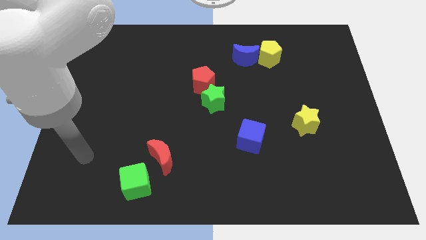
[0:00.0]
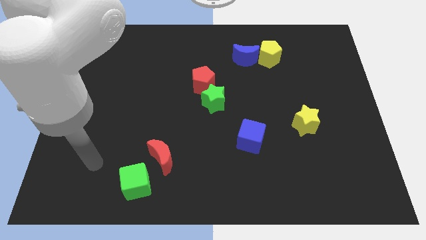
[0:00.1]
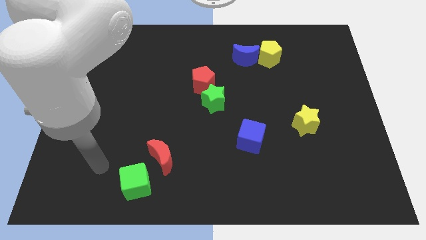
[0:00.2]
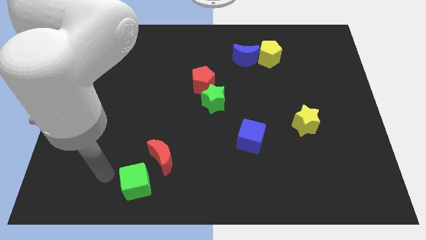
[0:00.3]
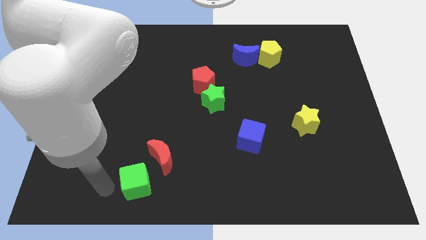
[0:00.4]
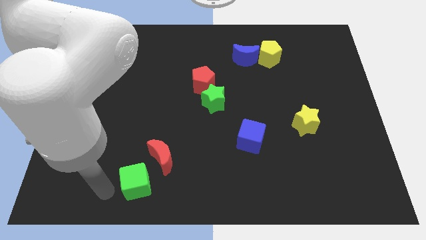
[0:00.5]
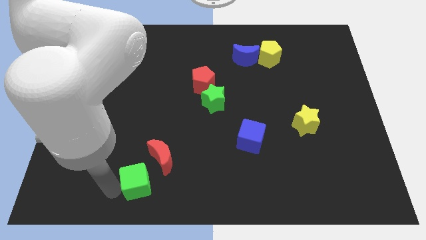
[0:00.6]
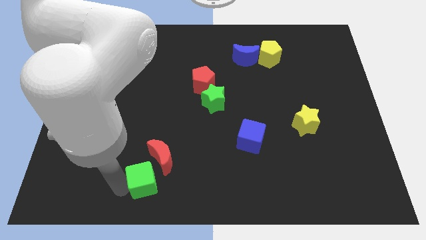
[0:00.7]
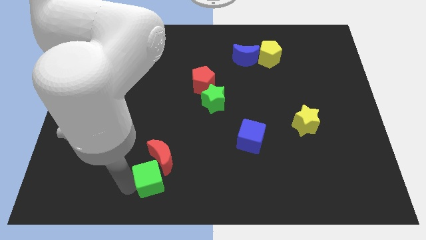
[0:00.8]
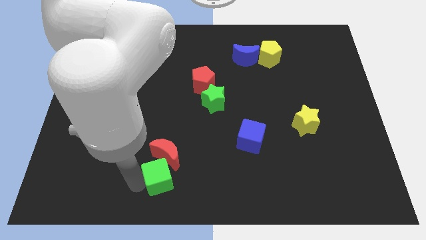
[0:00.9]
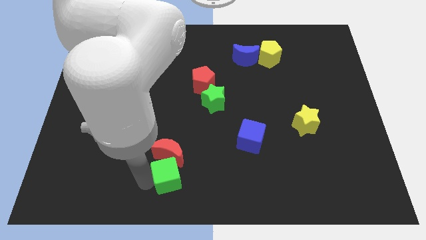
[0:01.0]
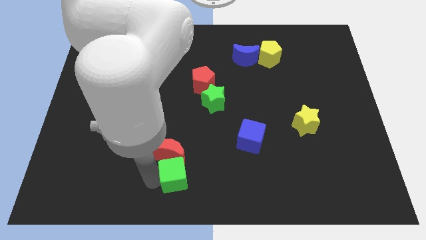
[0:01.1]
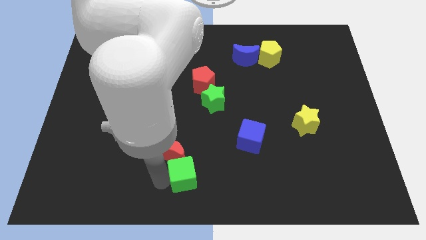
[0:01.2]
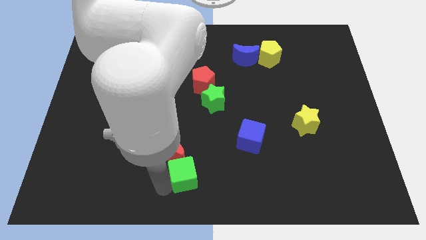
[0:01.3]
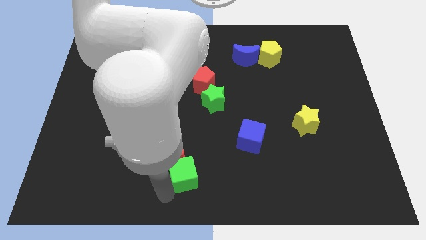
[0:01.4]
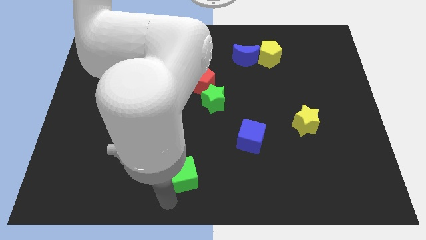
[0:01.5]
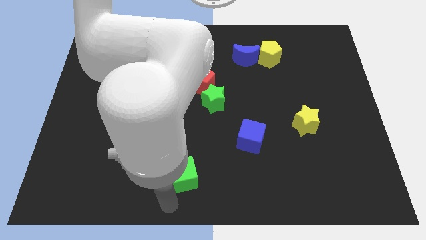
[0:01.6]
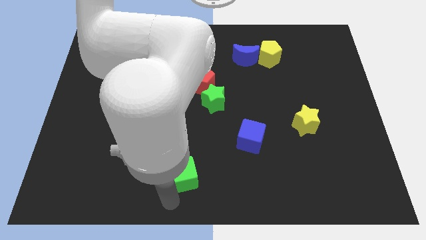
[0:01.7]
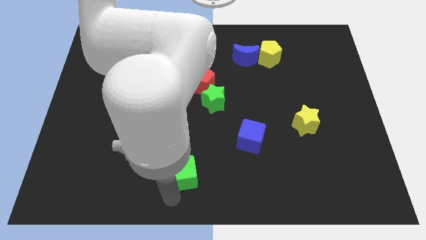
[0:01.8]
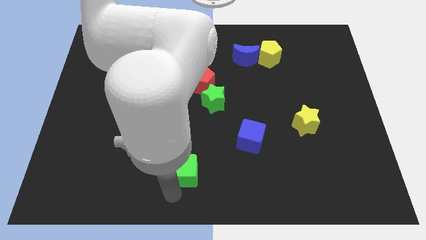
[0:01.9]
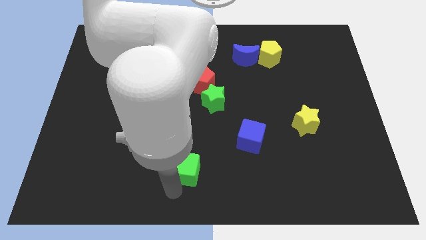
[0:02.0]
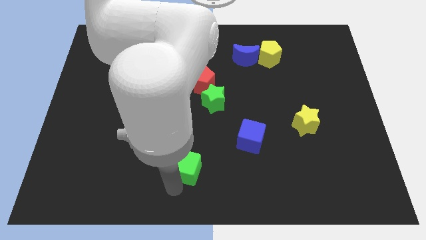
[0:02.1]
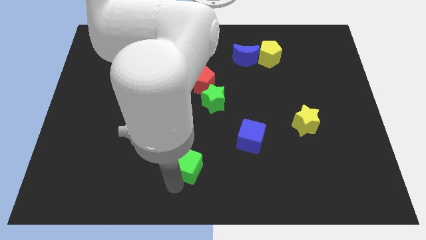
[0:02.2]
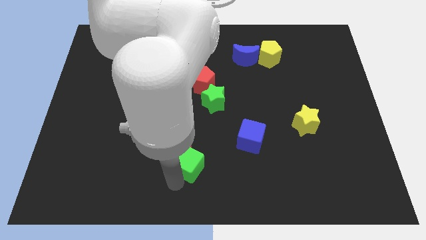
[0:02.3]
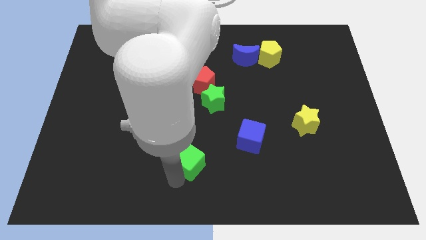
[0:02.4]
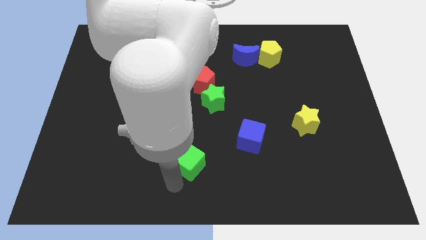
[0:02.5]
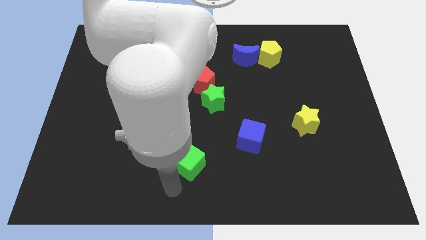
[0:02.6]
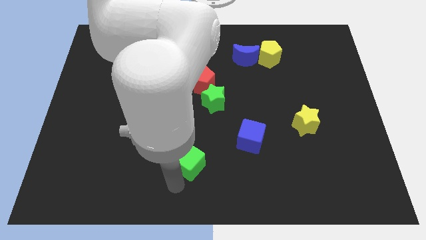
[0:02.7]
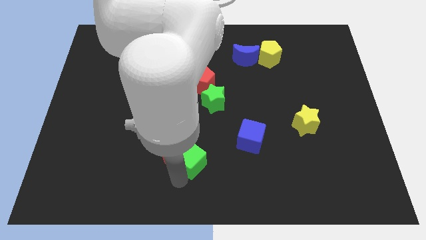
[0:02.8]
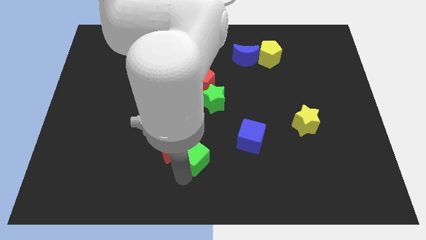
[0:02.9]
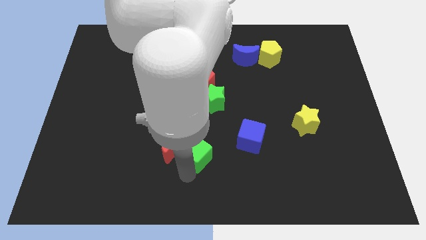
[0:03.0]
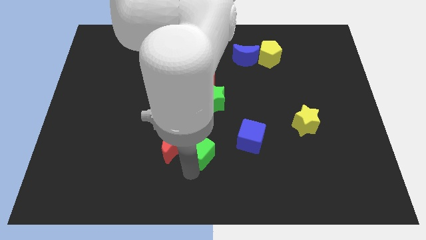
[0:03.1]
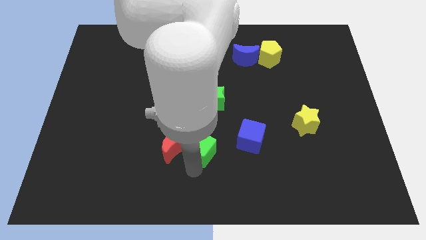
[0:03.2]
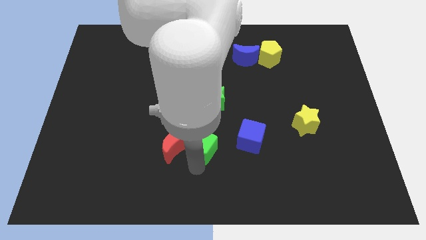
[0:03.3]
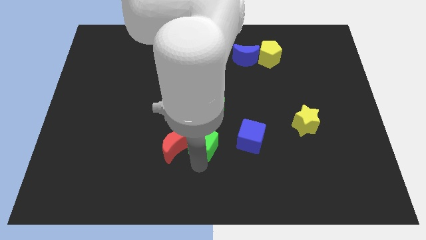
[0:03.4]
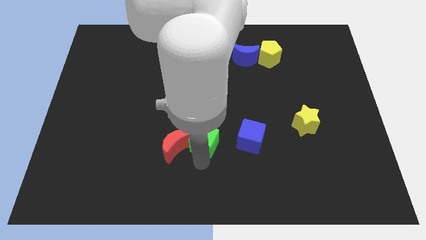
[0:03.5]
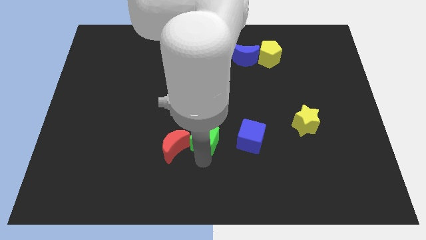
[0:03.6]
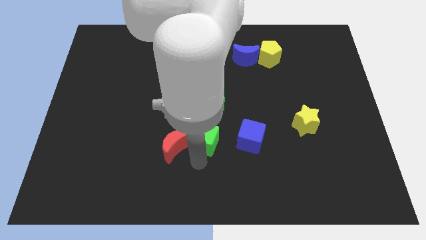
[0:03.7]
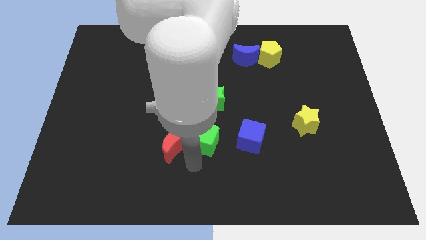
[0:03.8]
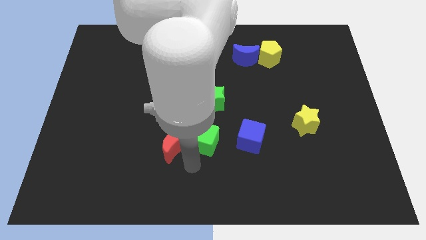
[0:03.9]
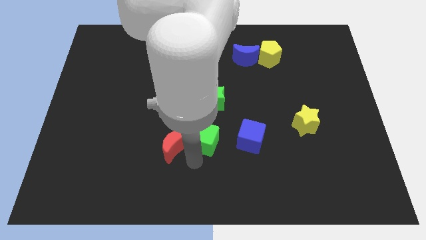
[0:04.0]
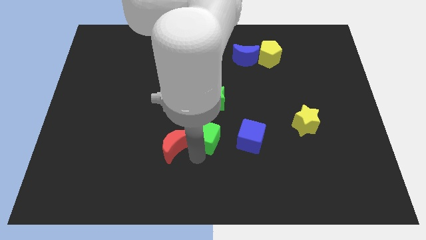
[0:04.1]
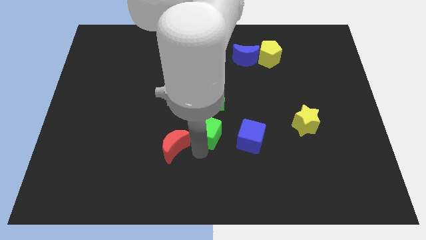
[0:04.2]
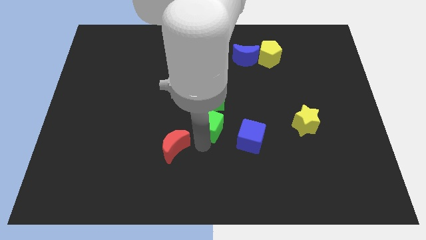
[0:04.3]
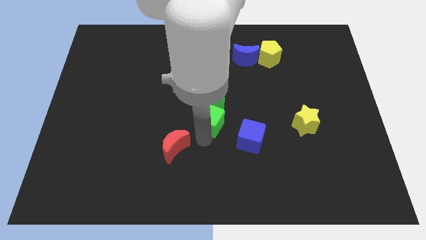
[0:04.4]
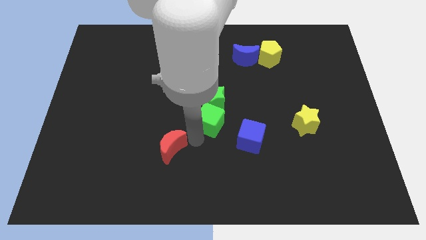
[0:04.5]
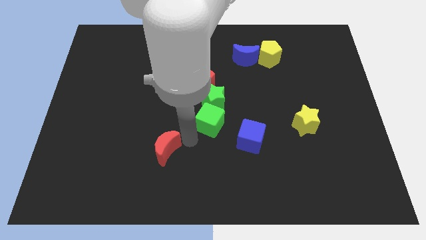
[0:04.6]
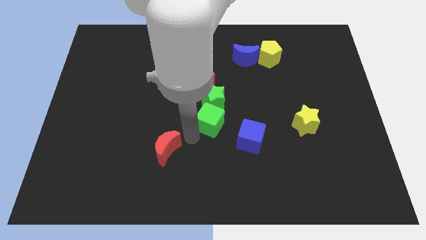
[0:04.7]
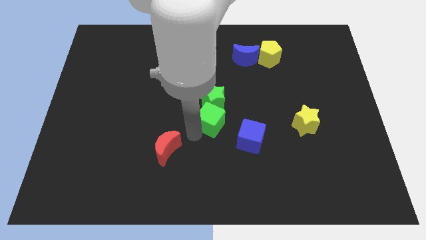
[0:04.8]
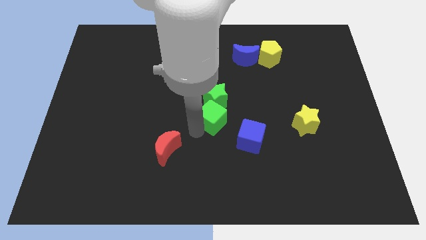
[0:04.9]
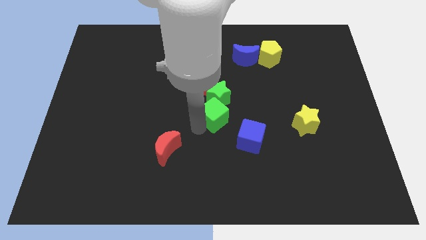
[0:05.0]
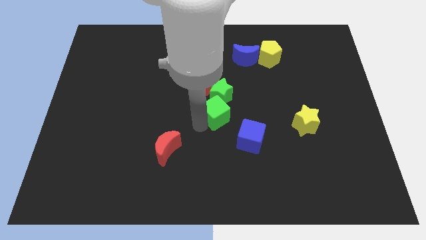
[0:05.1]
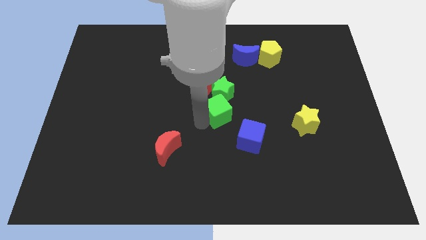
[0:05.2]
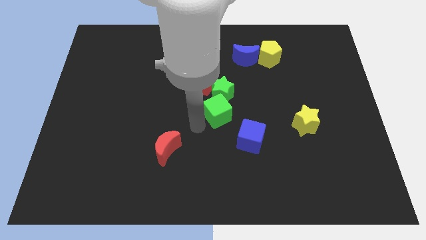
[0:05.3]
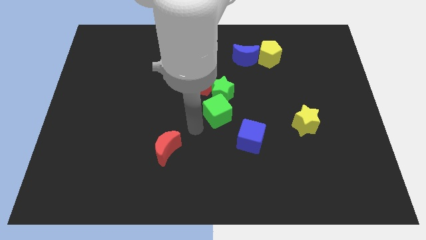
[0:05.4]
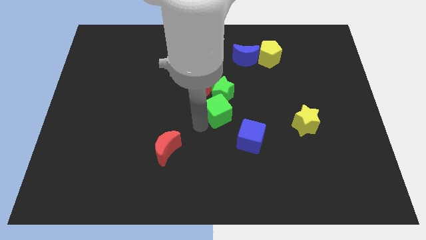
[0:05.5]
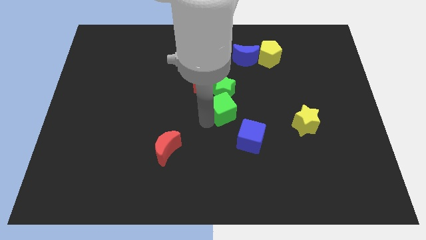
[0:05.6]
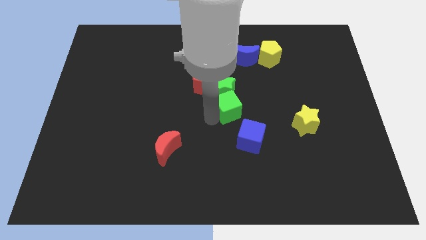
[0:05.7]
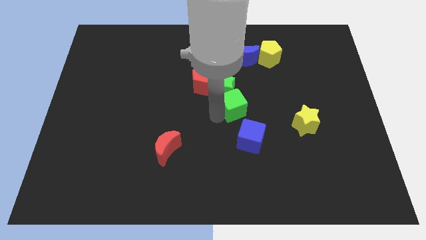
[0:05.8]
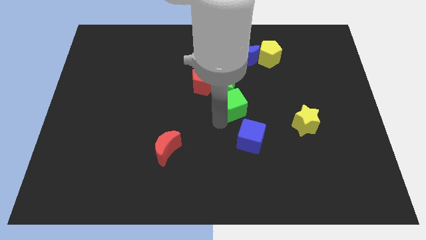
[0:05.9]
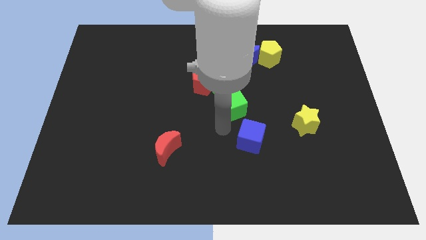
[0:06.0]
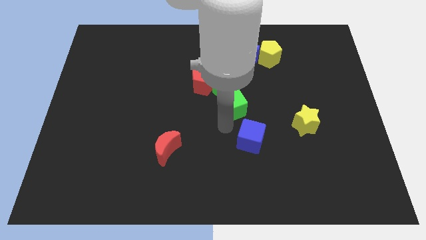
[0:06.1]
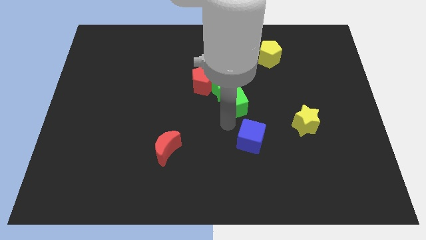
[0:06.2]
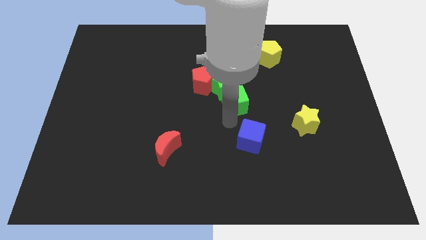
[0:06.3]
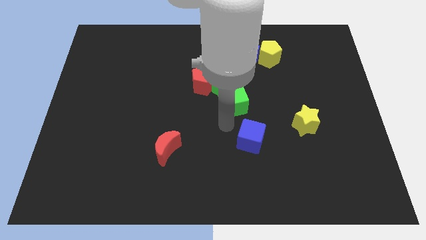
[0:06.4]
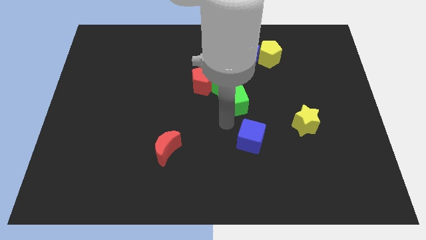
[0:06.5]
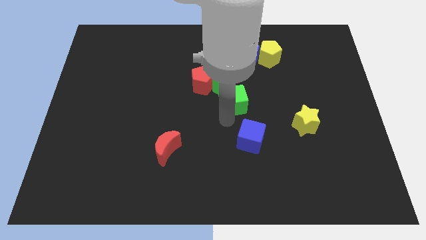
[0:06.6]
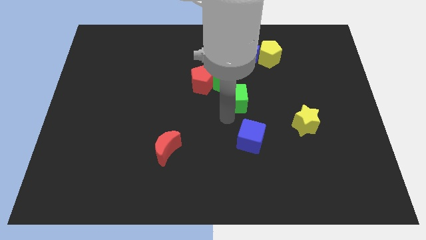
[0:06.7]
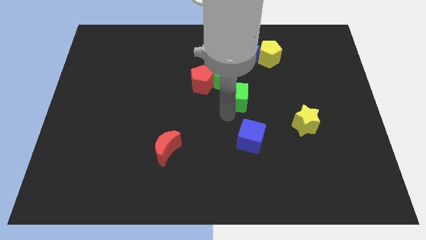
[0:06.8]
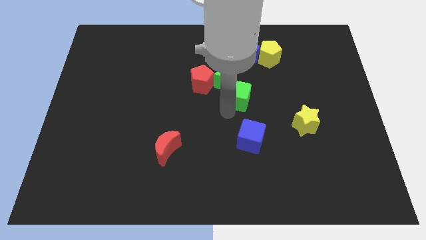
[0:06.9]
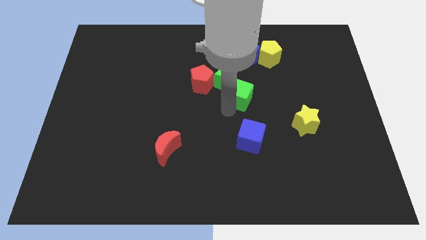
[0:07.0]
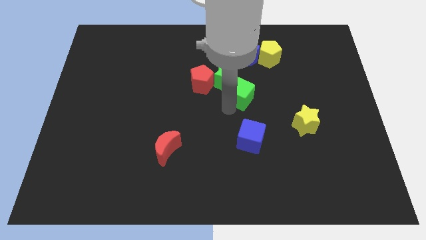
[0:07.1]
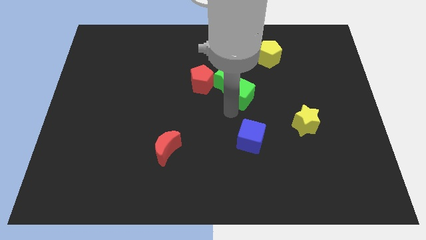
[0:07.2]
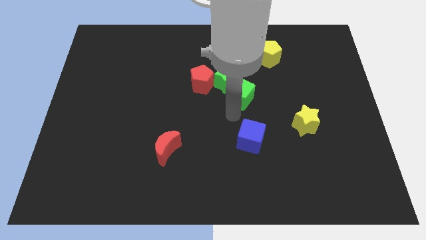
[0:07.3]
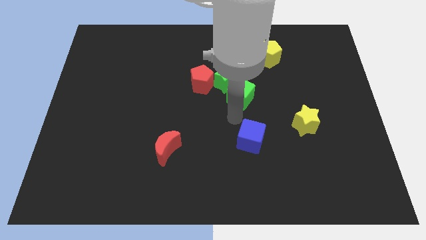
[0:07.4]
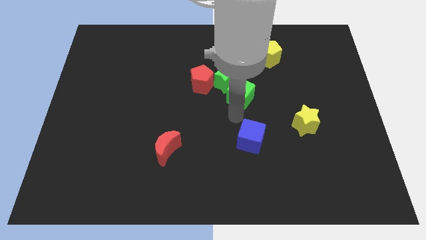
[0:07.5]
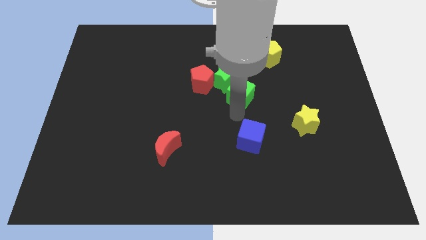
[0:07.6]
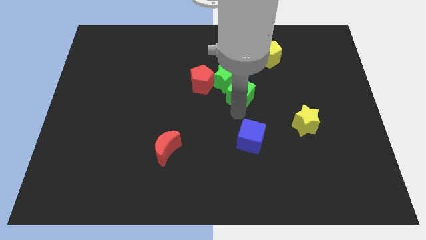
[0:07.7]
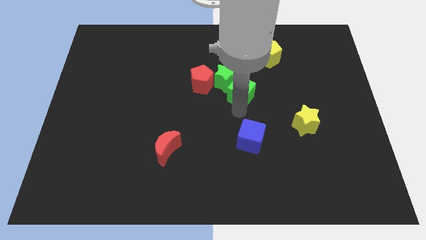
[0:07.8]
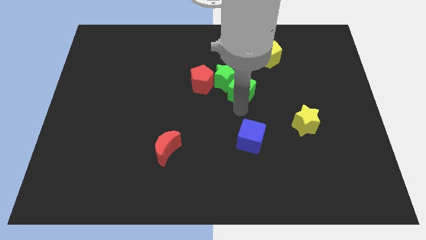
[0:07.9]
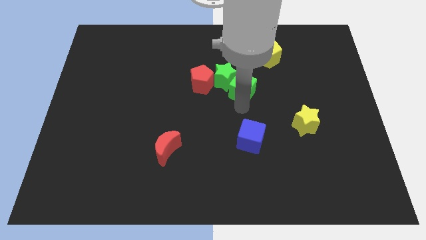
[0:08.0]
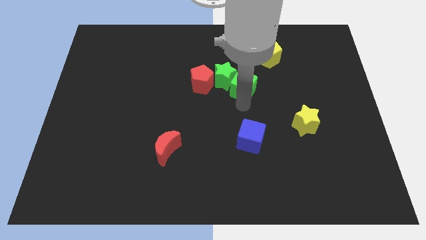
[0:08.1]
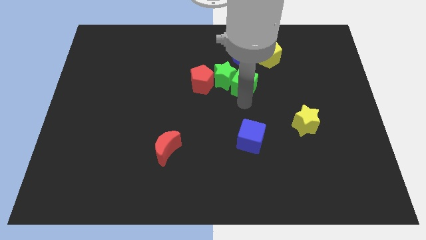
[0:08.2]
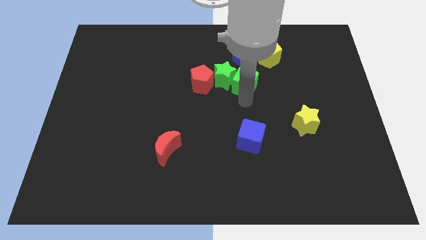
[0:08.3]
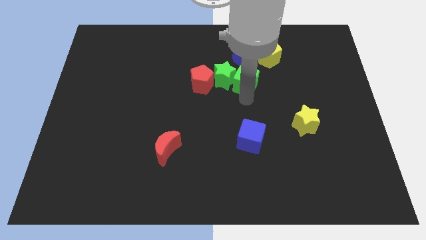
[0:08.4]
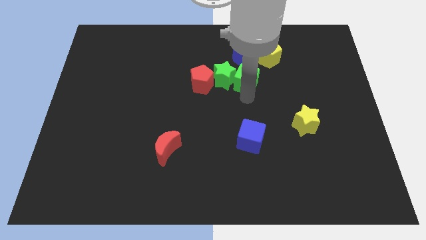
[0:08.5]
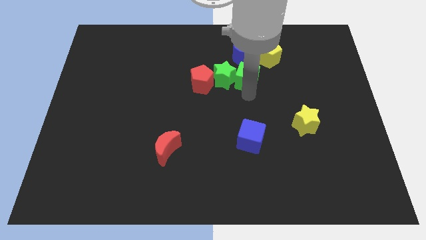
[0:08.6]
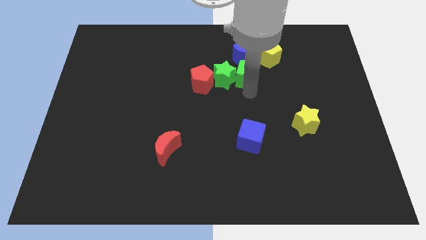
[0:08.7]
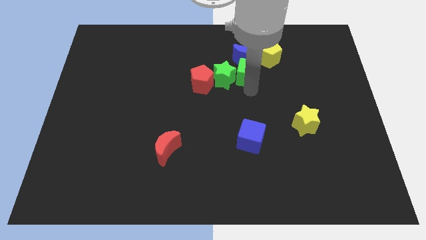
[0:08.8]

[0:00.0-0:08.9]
put the green cube close to the blue moon
